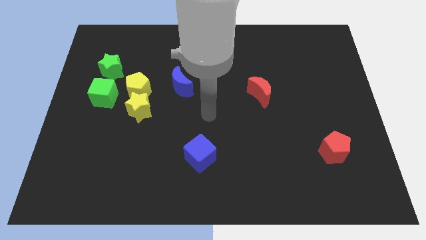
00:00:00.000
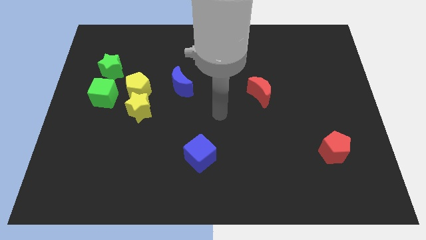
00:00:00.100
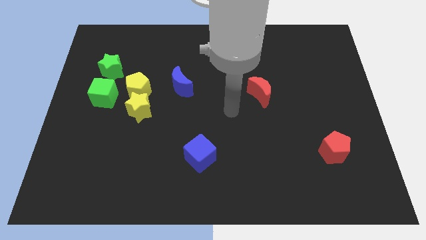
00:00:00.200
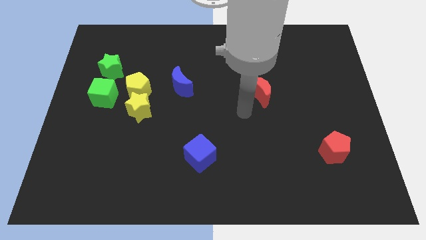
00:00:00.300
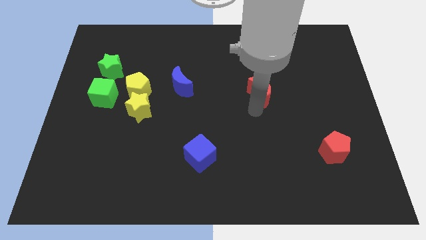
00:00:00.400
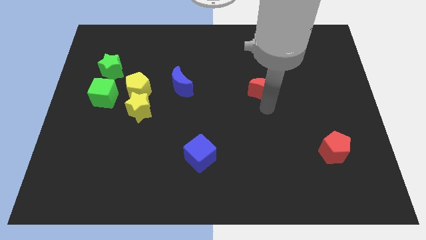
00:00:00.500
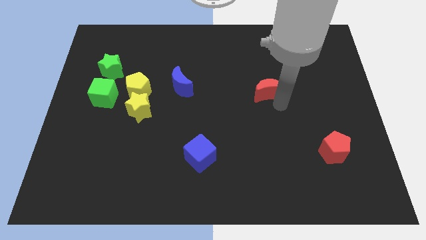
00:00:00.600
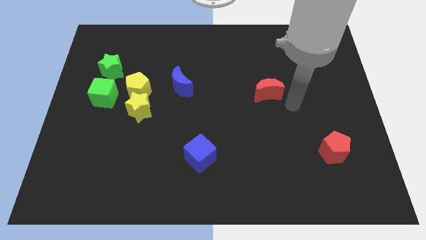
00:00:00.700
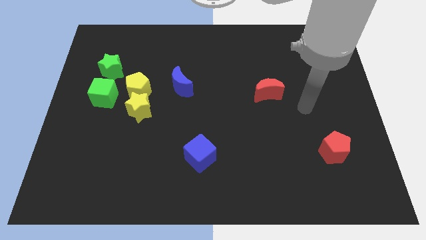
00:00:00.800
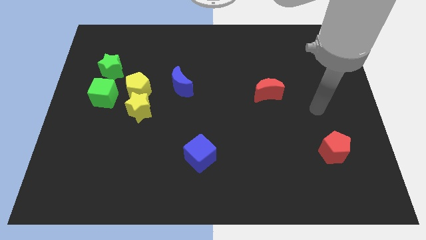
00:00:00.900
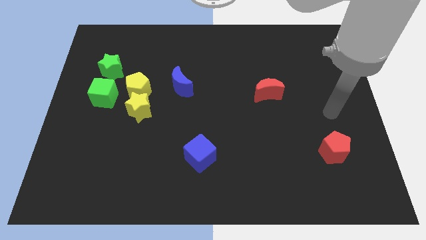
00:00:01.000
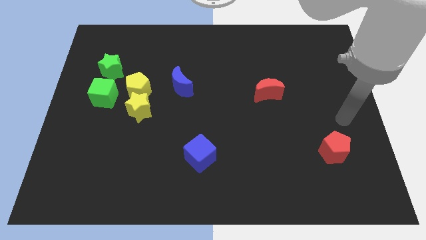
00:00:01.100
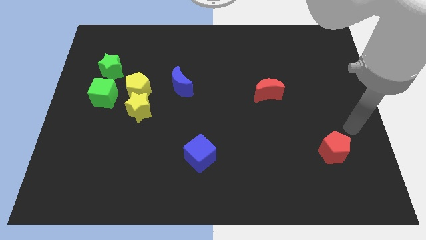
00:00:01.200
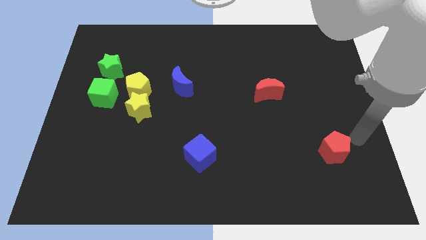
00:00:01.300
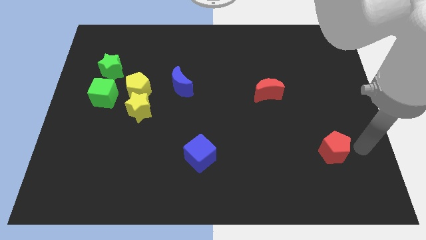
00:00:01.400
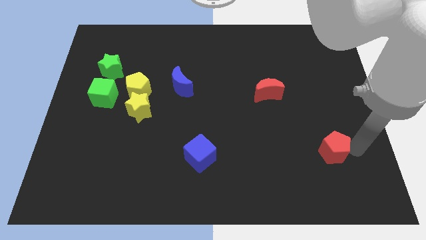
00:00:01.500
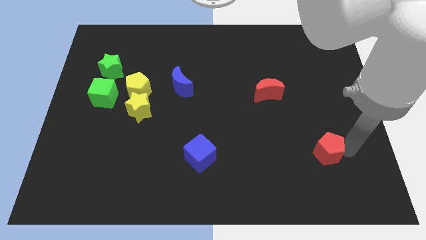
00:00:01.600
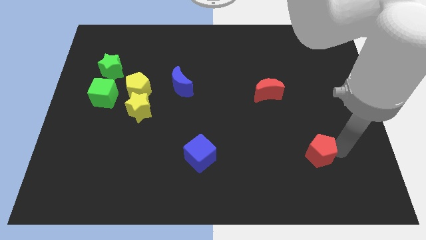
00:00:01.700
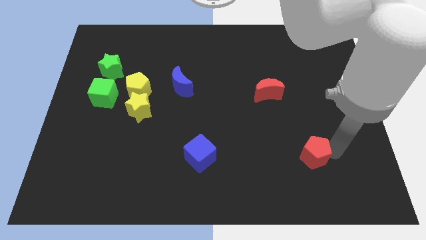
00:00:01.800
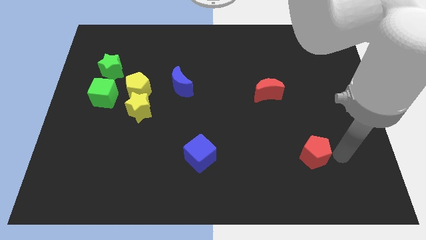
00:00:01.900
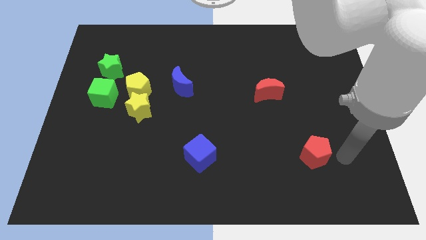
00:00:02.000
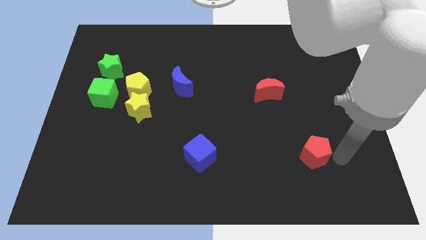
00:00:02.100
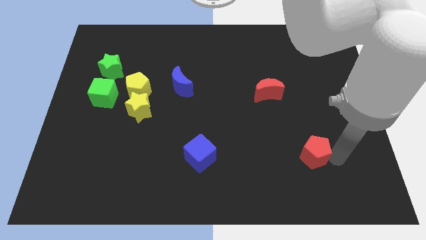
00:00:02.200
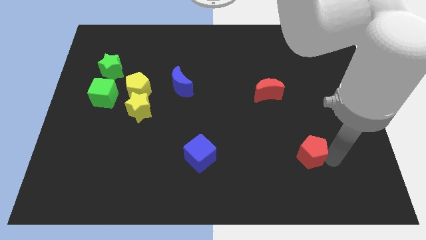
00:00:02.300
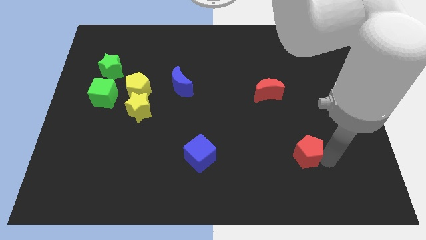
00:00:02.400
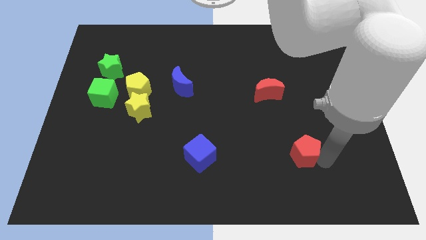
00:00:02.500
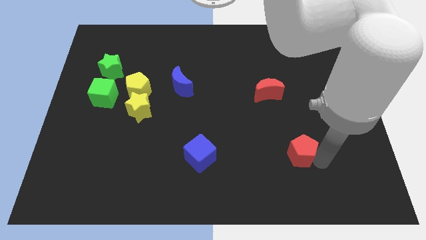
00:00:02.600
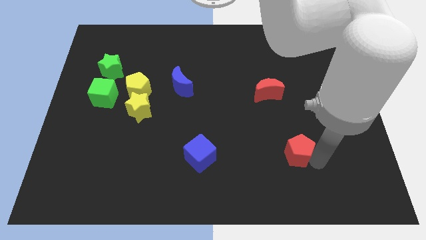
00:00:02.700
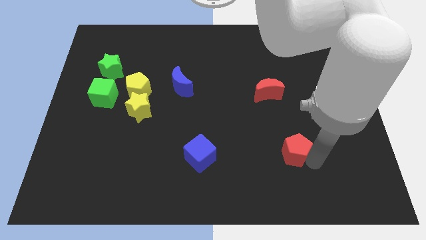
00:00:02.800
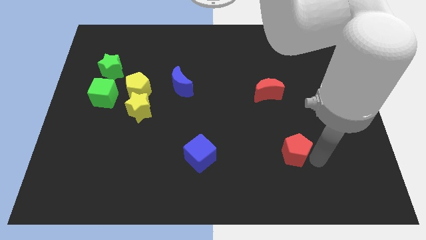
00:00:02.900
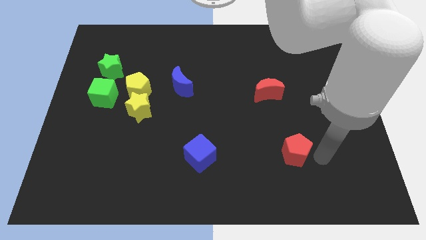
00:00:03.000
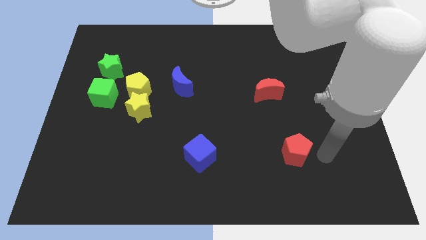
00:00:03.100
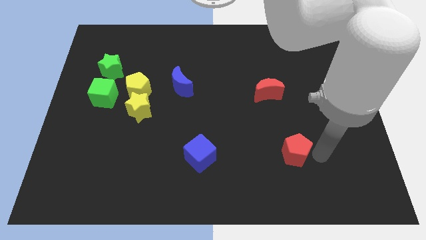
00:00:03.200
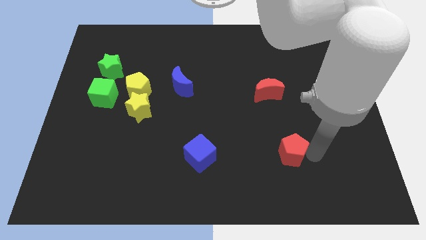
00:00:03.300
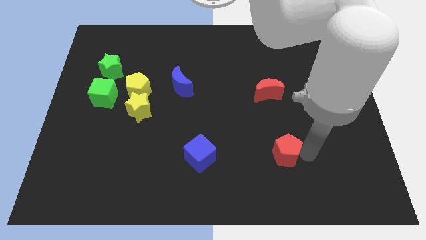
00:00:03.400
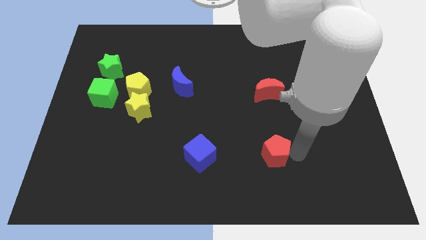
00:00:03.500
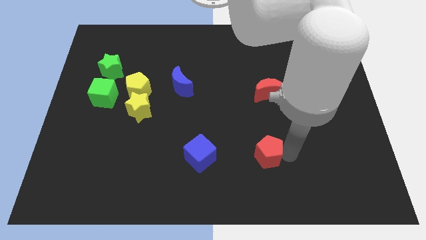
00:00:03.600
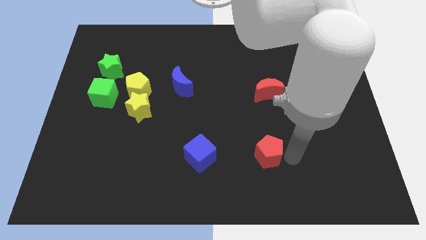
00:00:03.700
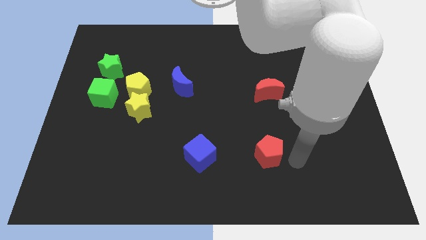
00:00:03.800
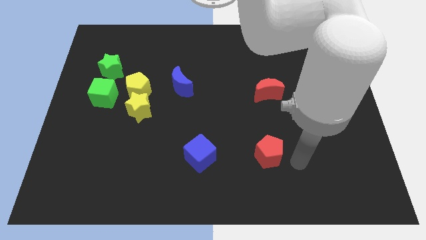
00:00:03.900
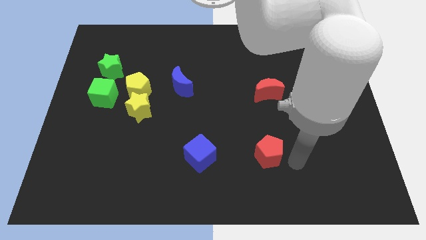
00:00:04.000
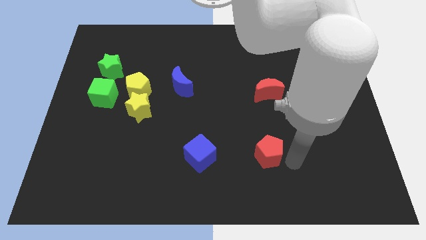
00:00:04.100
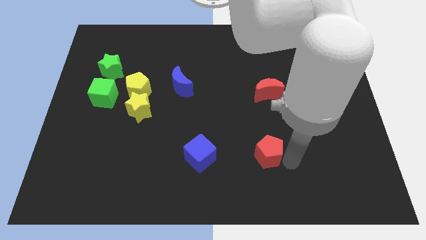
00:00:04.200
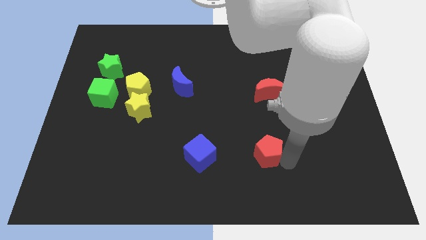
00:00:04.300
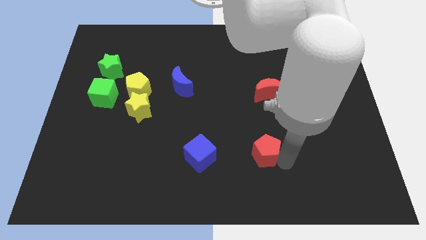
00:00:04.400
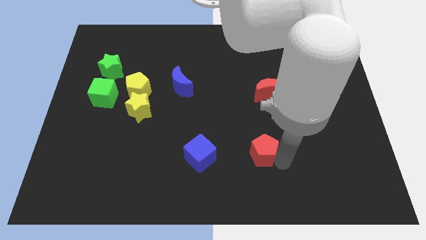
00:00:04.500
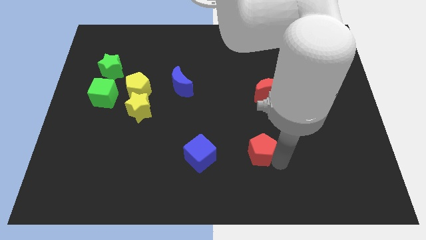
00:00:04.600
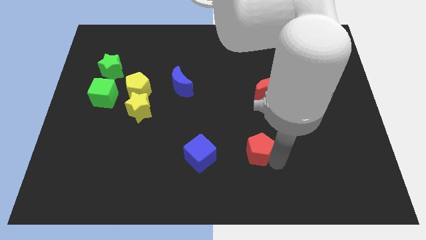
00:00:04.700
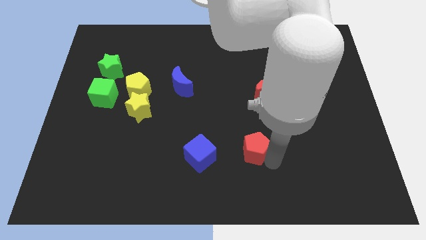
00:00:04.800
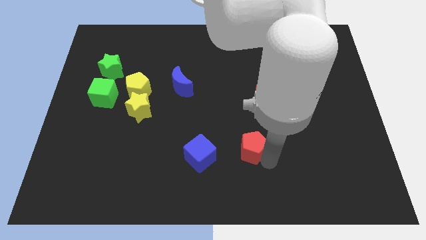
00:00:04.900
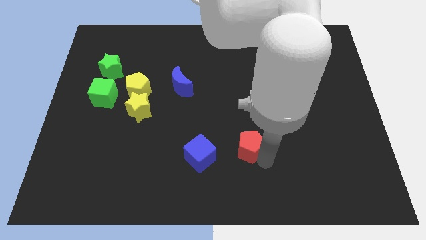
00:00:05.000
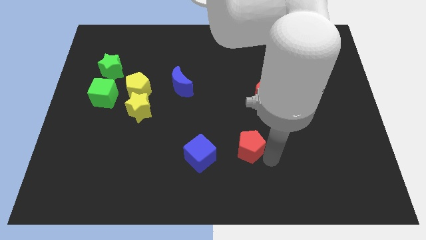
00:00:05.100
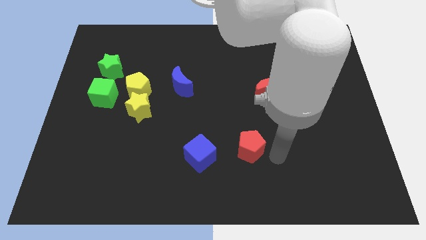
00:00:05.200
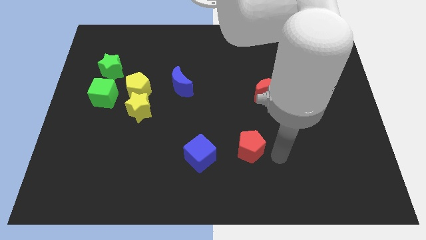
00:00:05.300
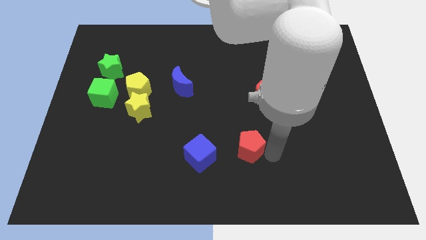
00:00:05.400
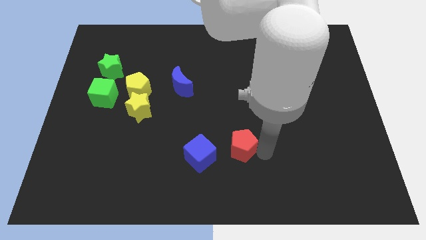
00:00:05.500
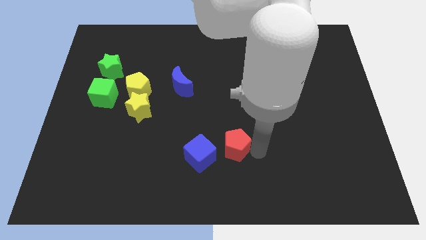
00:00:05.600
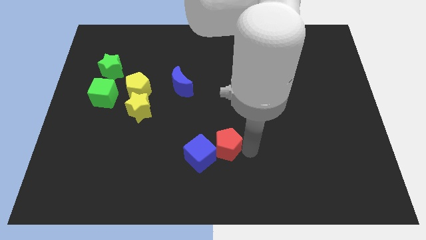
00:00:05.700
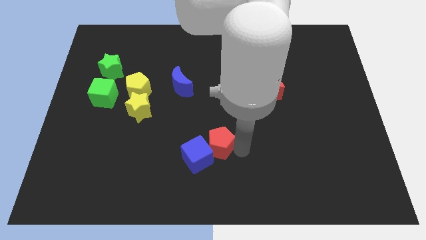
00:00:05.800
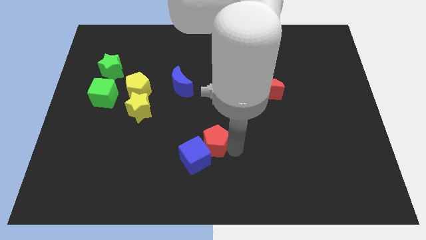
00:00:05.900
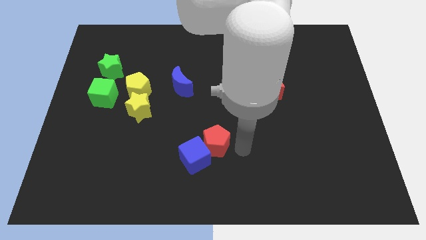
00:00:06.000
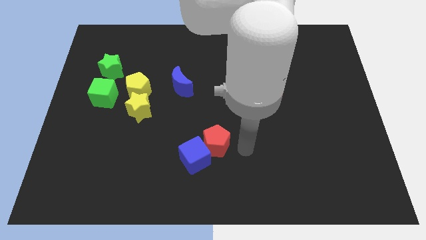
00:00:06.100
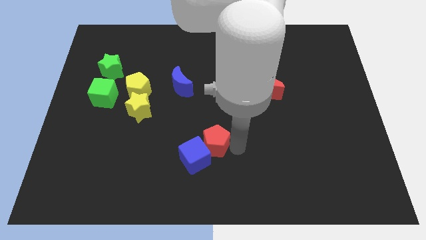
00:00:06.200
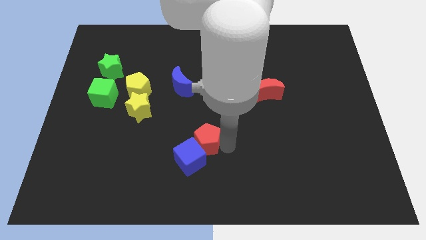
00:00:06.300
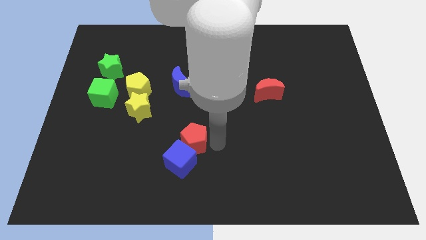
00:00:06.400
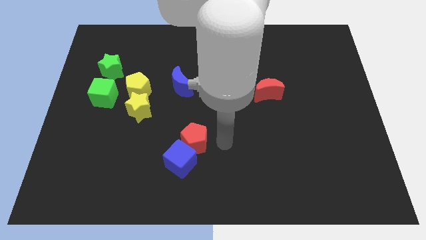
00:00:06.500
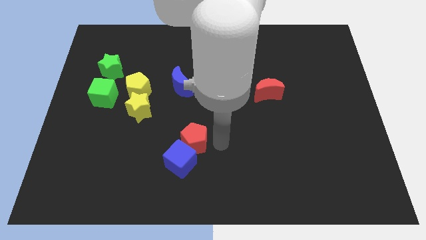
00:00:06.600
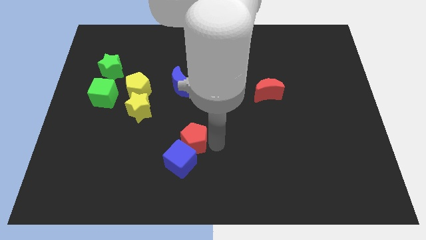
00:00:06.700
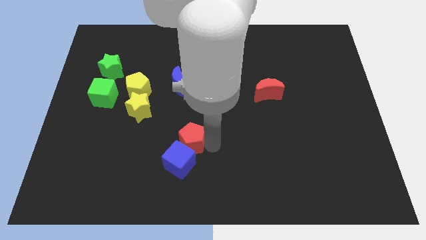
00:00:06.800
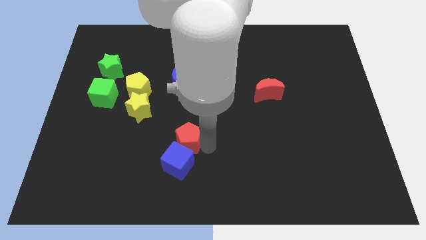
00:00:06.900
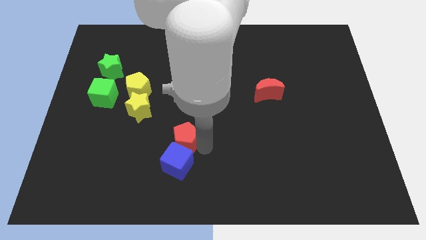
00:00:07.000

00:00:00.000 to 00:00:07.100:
move the red pentagon to the top left of the blue cube
